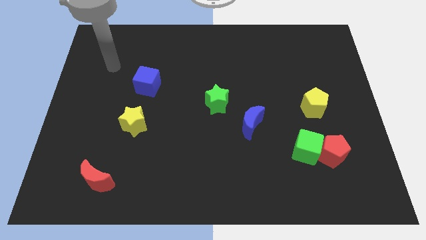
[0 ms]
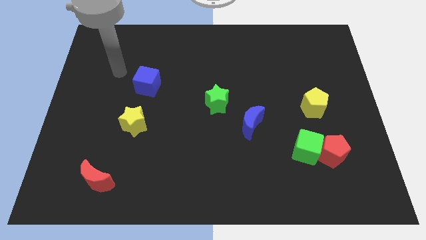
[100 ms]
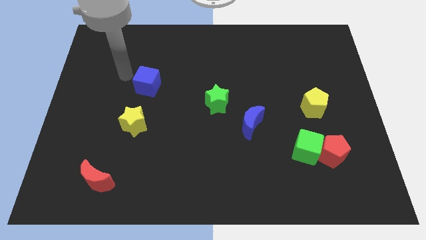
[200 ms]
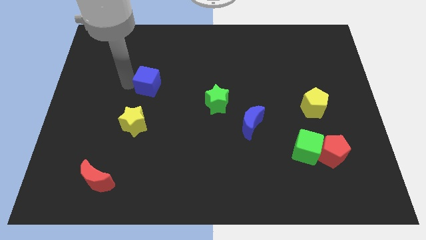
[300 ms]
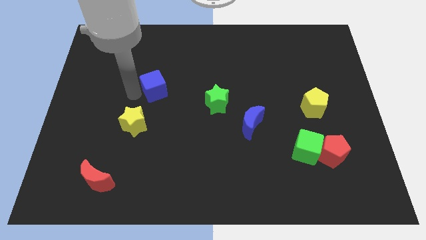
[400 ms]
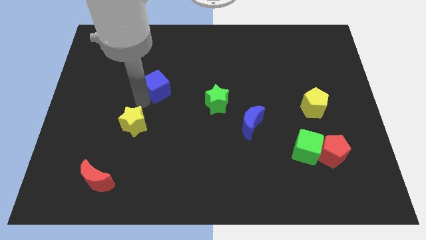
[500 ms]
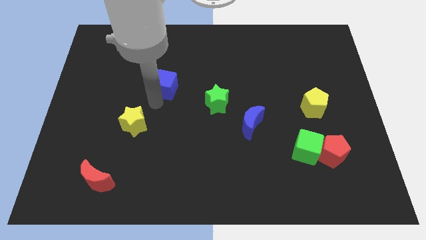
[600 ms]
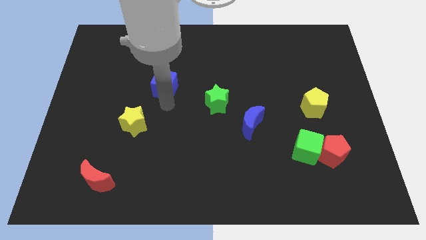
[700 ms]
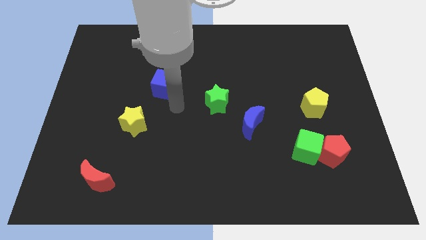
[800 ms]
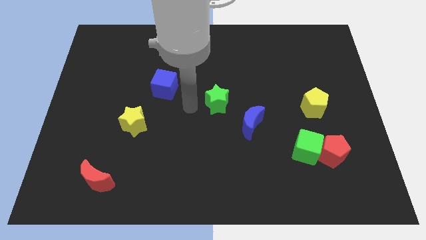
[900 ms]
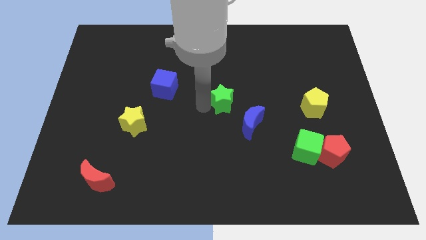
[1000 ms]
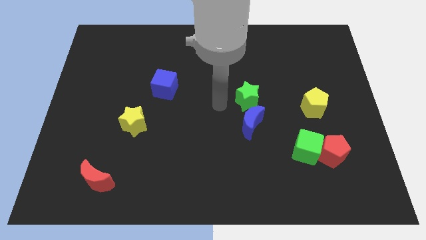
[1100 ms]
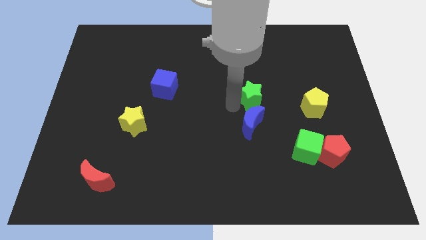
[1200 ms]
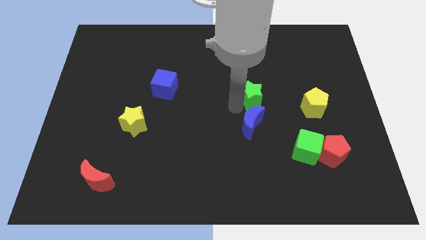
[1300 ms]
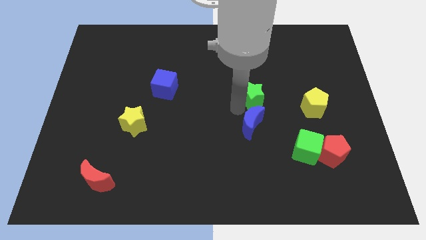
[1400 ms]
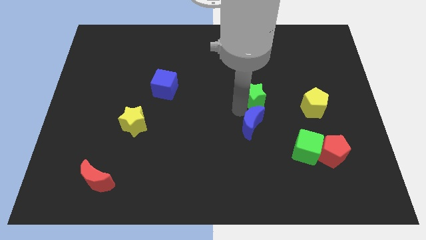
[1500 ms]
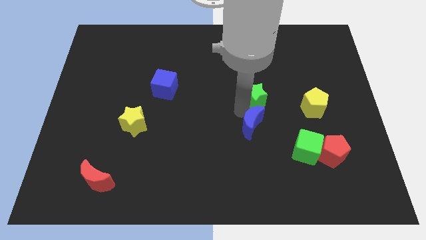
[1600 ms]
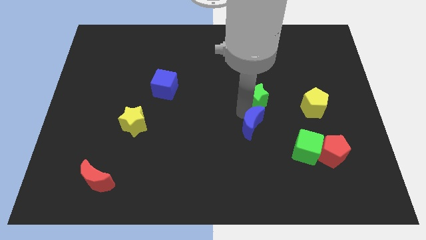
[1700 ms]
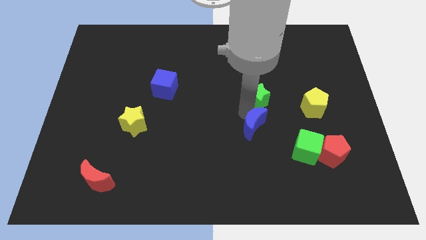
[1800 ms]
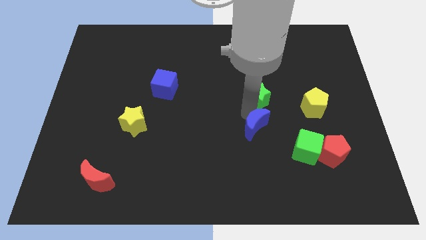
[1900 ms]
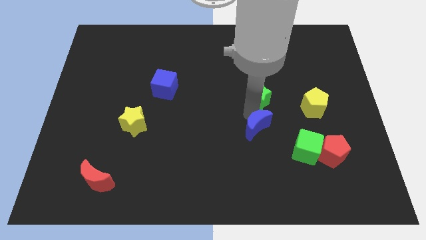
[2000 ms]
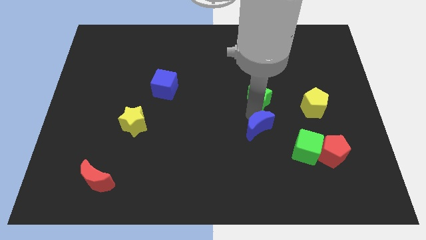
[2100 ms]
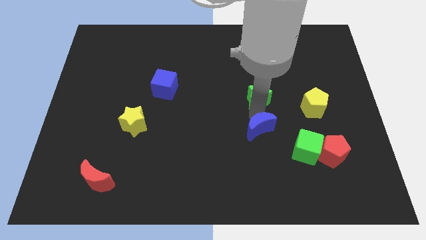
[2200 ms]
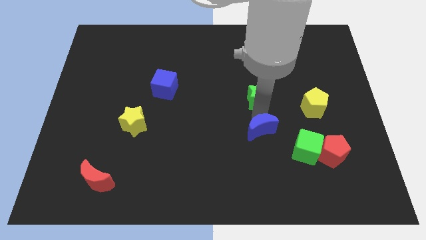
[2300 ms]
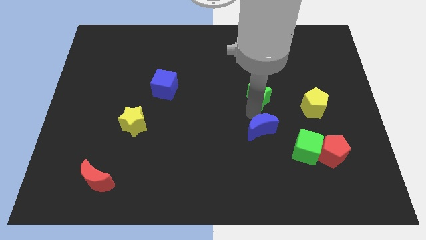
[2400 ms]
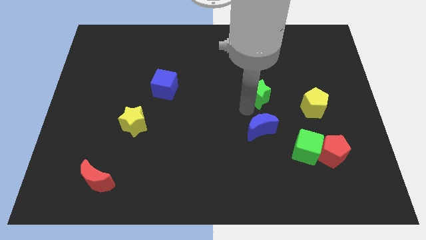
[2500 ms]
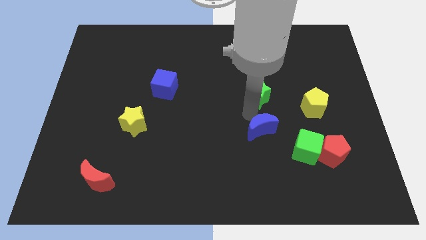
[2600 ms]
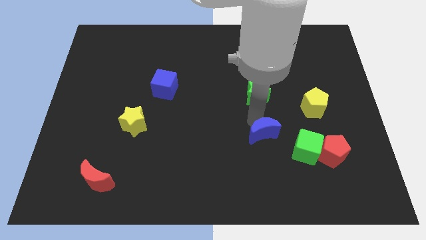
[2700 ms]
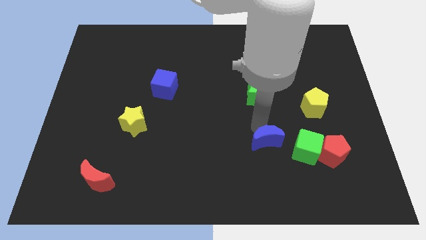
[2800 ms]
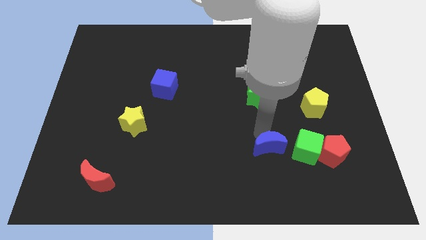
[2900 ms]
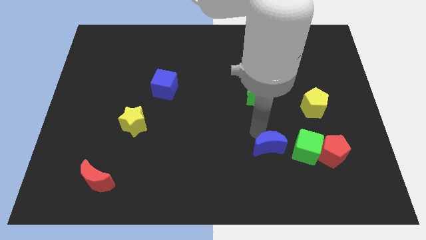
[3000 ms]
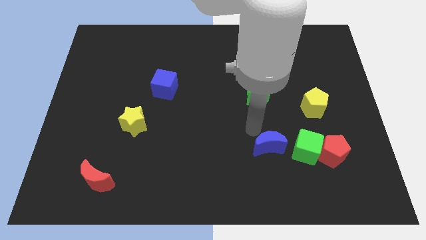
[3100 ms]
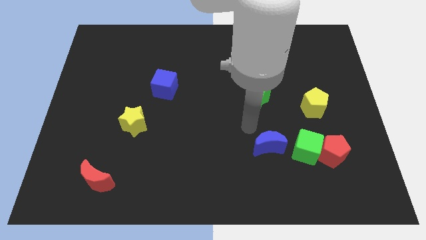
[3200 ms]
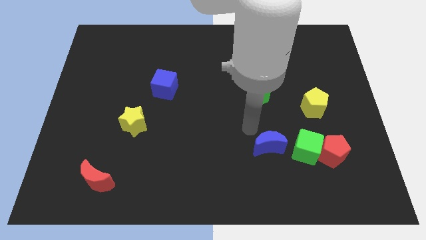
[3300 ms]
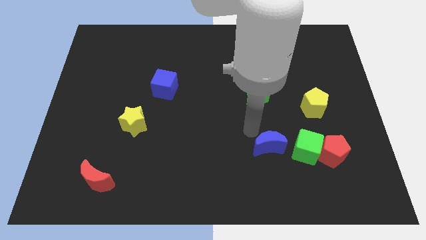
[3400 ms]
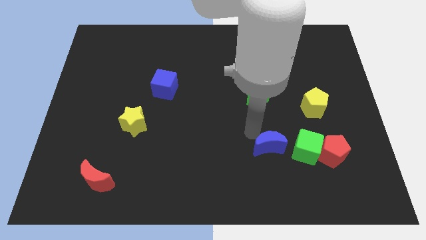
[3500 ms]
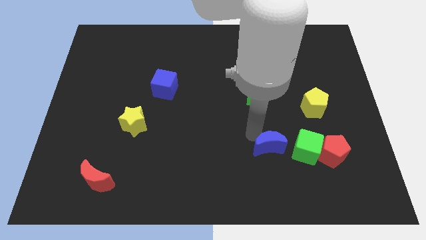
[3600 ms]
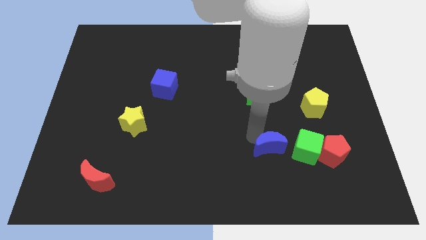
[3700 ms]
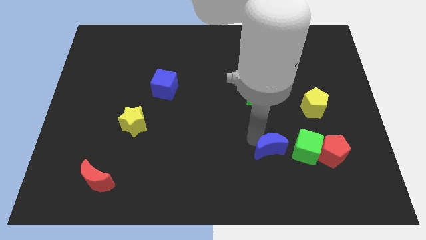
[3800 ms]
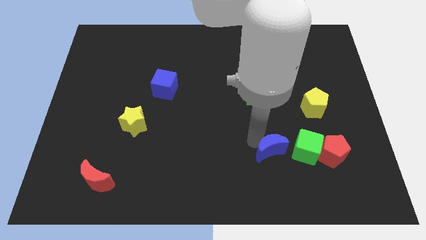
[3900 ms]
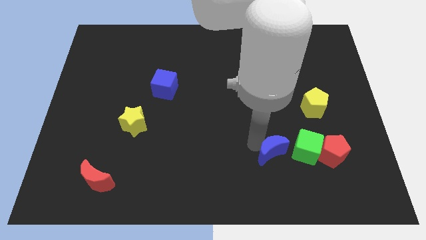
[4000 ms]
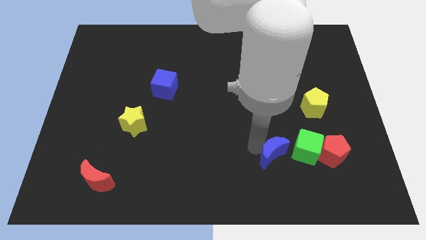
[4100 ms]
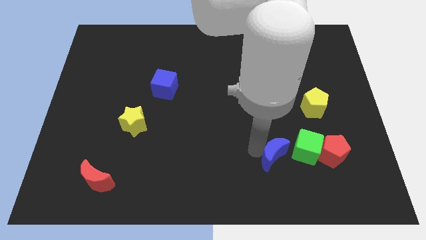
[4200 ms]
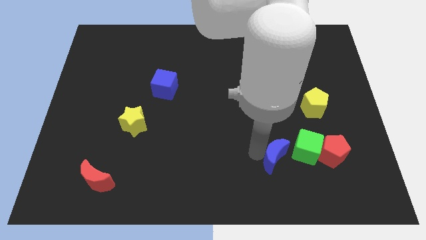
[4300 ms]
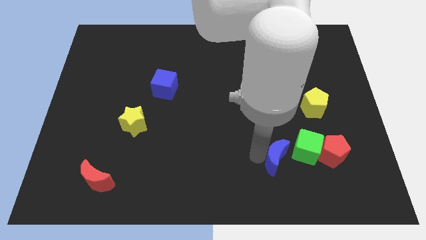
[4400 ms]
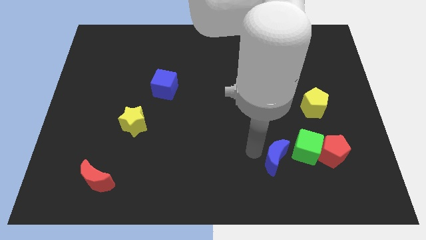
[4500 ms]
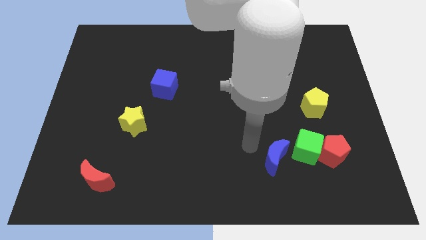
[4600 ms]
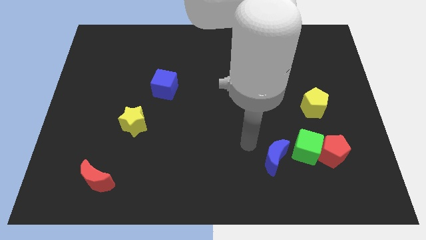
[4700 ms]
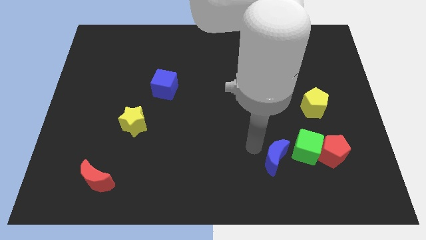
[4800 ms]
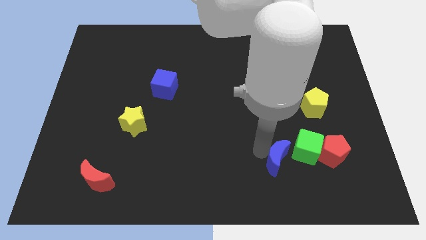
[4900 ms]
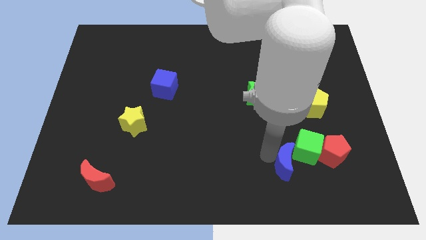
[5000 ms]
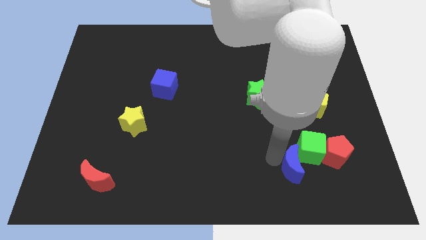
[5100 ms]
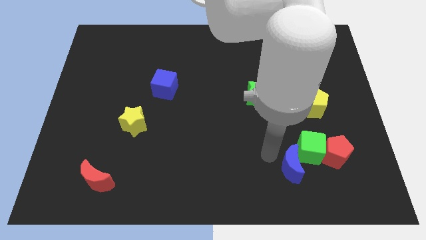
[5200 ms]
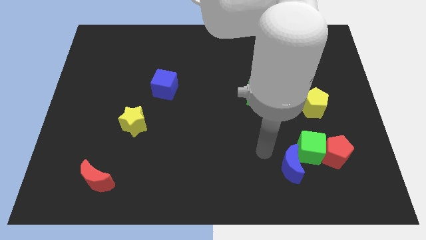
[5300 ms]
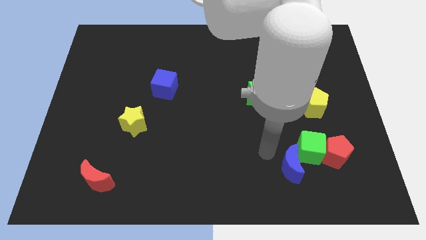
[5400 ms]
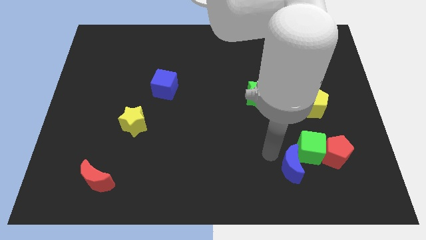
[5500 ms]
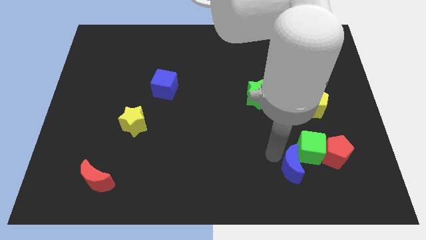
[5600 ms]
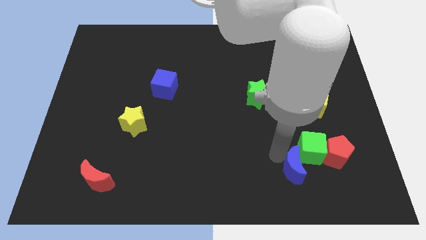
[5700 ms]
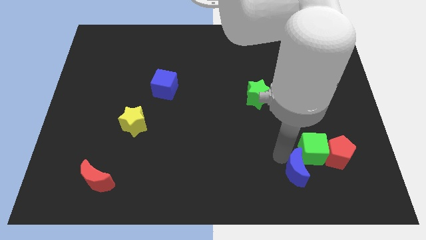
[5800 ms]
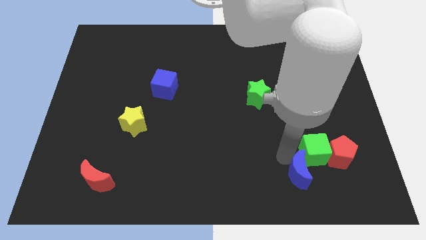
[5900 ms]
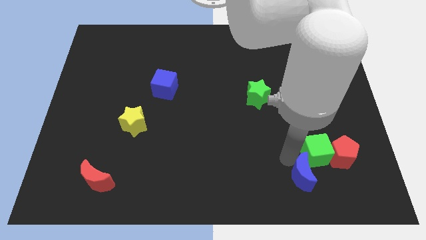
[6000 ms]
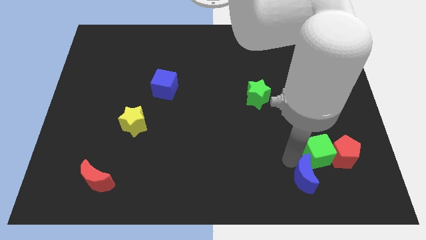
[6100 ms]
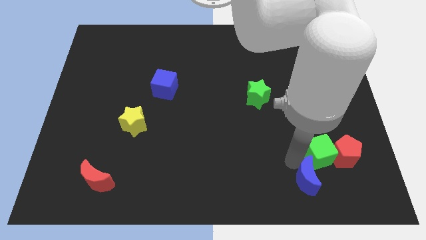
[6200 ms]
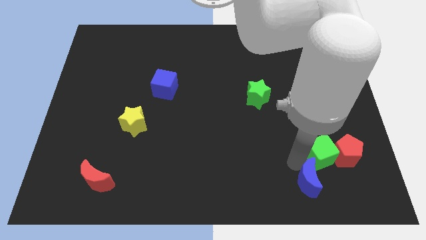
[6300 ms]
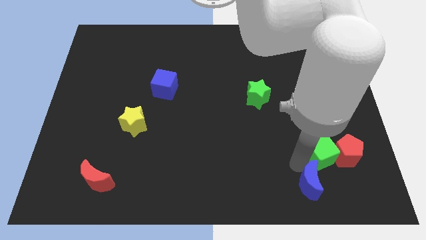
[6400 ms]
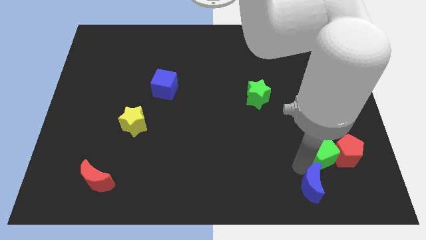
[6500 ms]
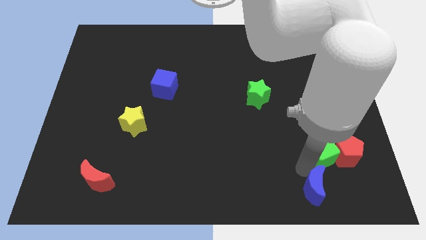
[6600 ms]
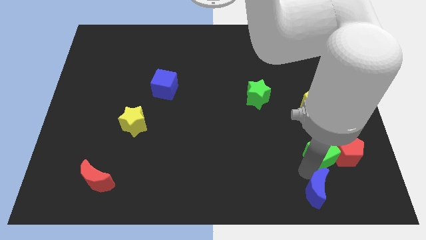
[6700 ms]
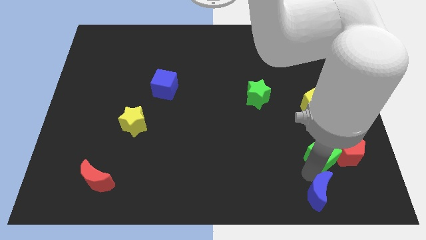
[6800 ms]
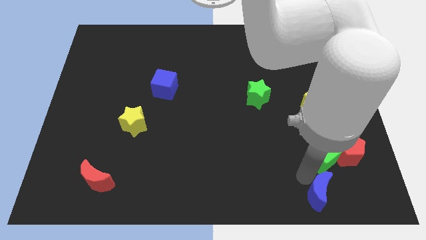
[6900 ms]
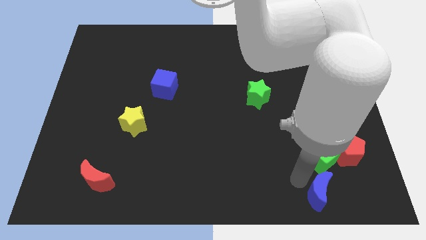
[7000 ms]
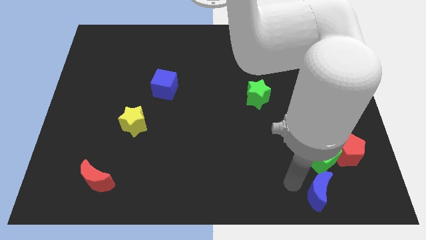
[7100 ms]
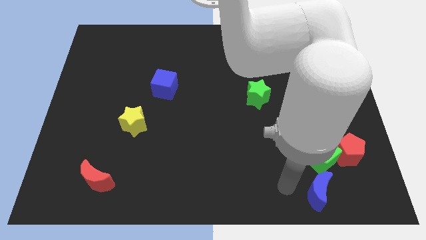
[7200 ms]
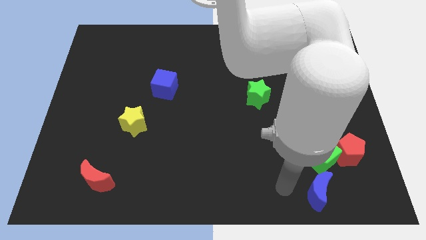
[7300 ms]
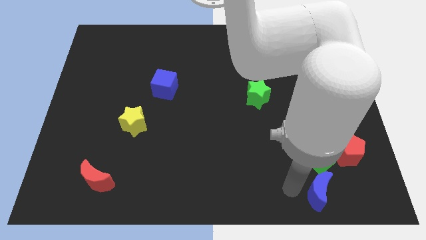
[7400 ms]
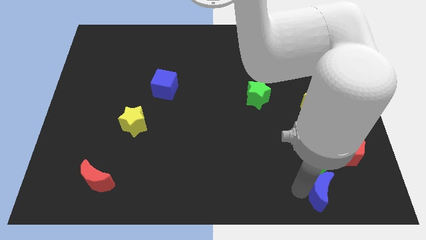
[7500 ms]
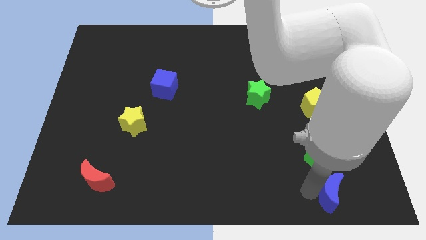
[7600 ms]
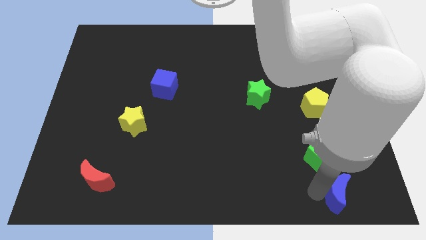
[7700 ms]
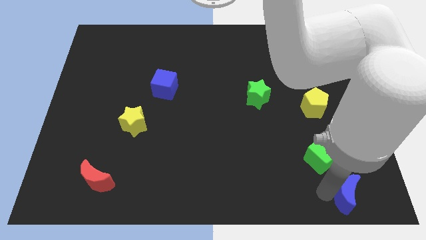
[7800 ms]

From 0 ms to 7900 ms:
put the blue moon to the bottom right
